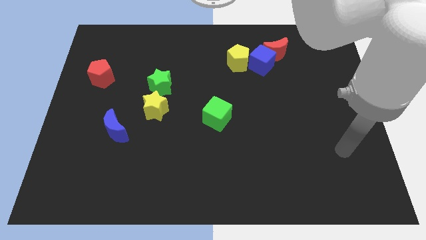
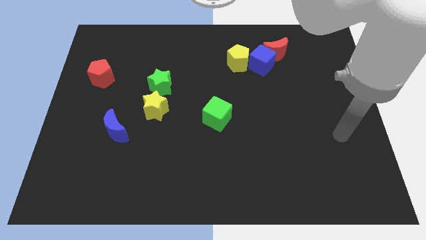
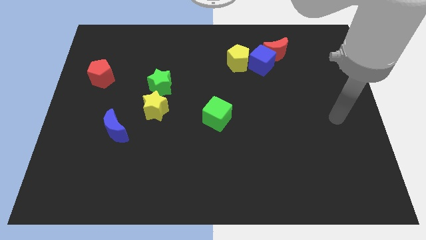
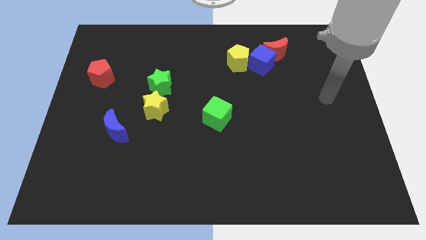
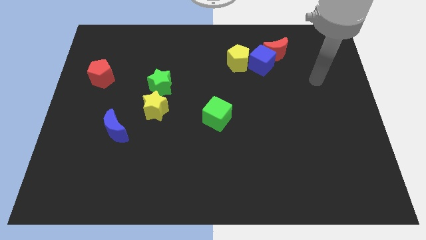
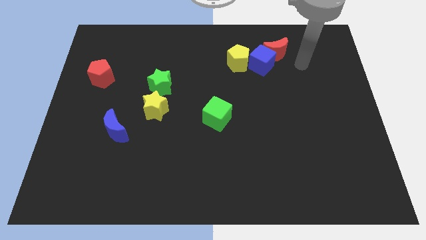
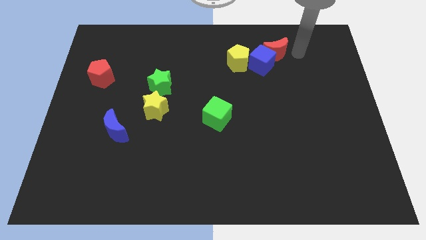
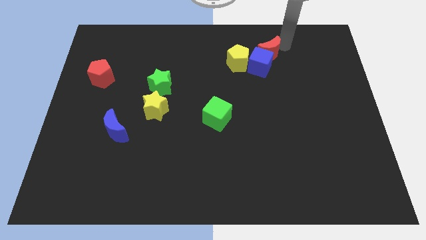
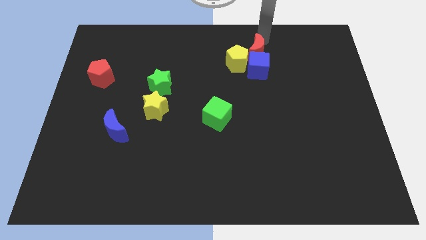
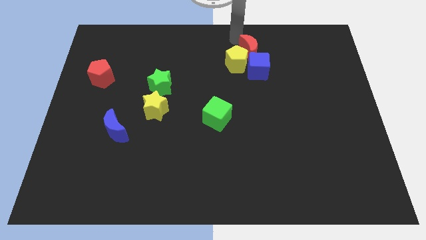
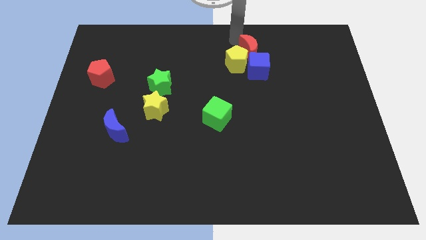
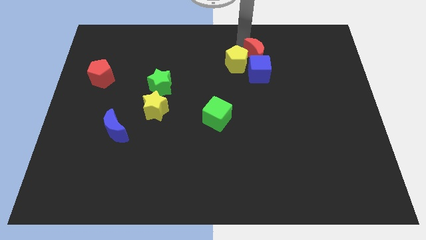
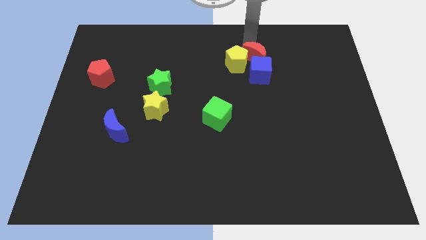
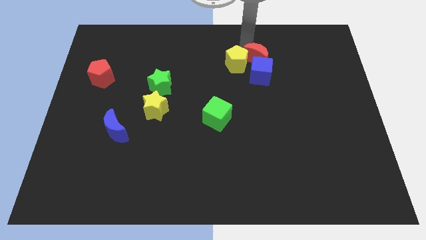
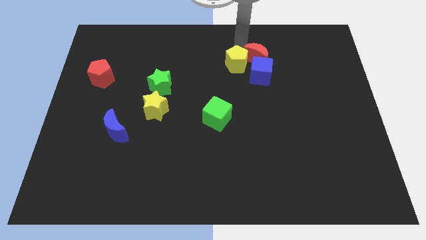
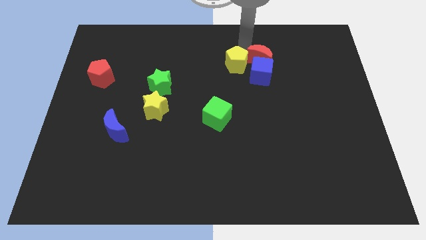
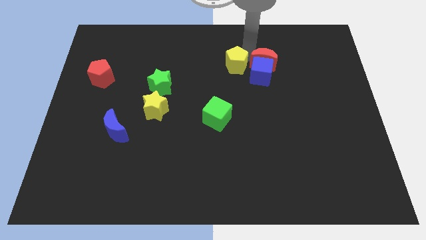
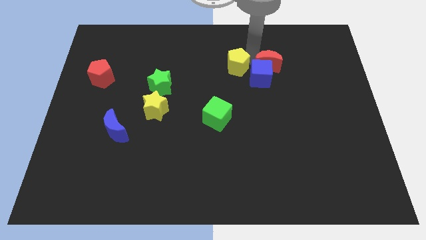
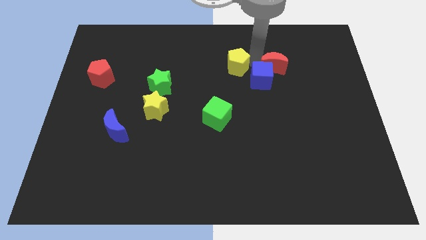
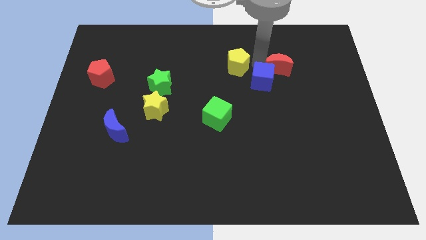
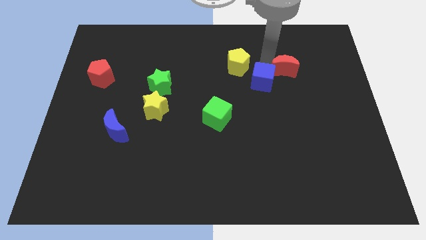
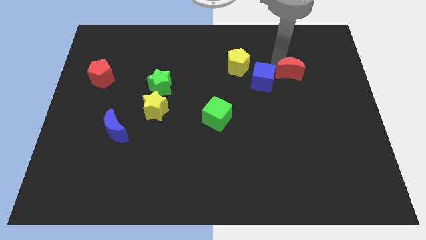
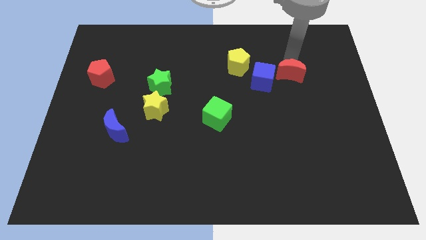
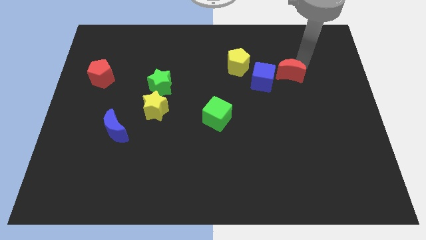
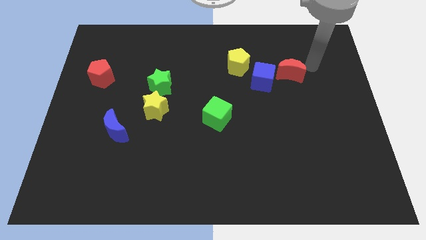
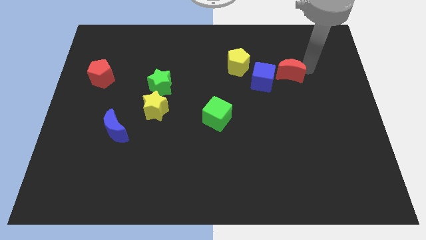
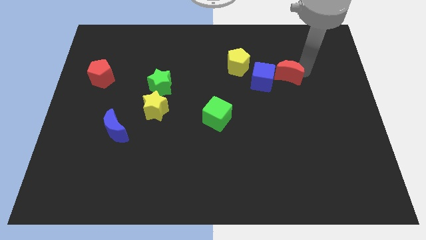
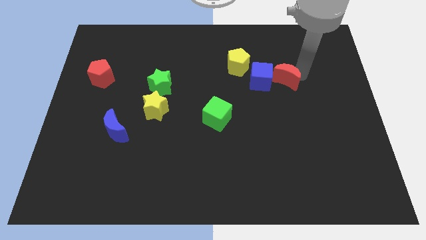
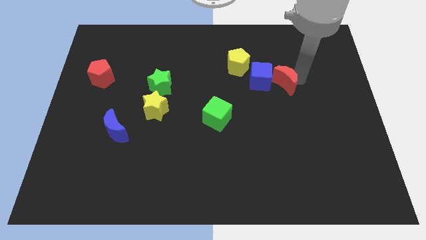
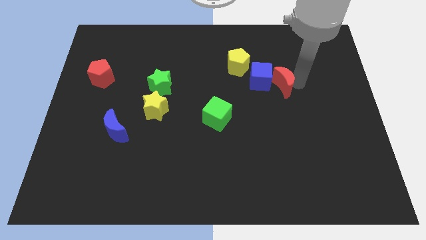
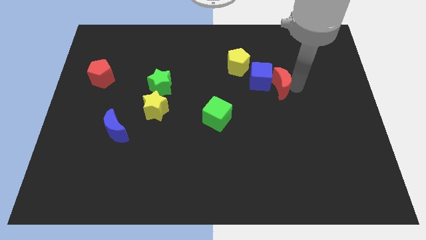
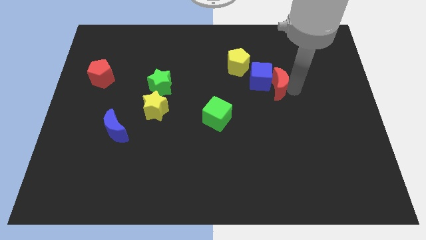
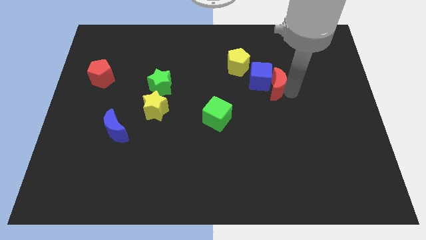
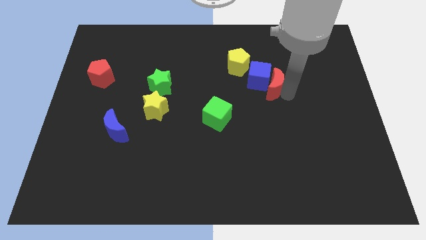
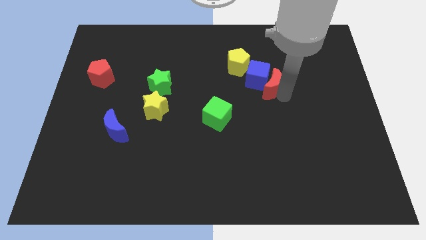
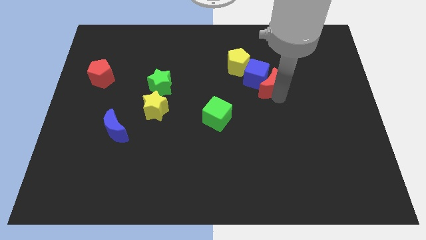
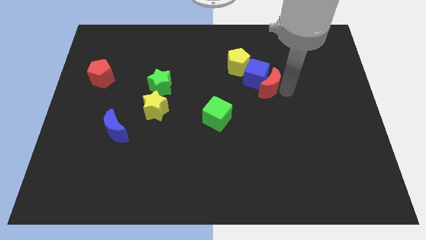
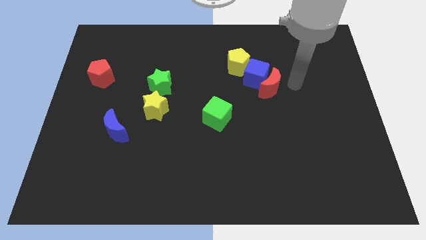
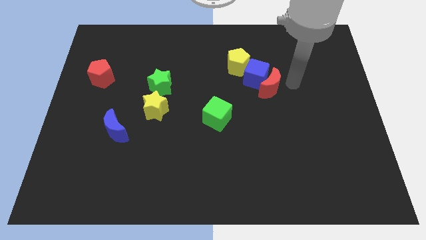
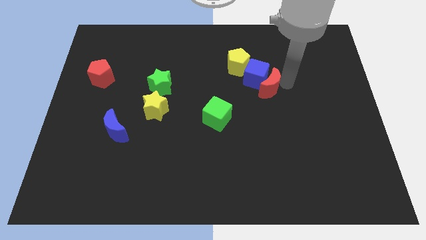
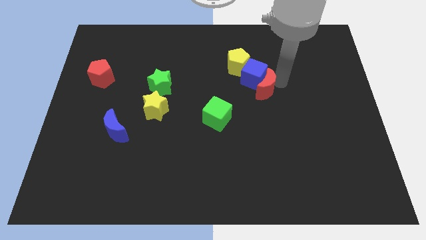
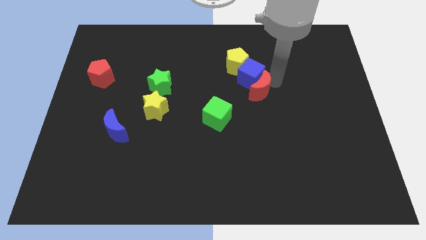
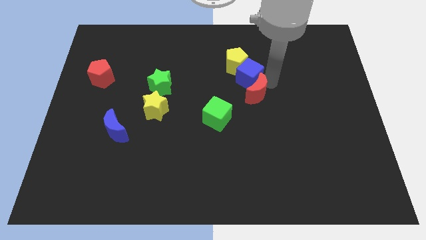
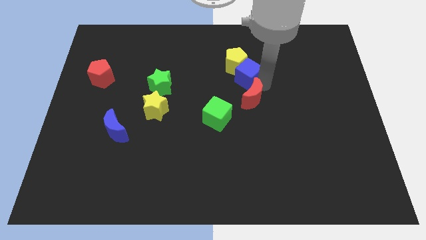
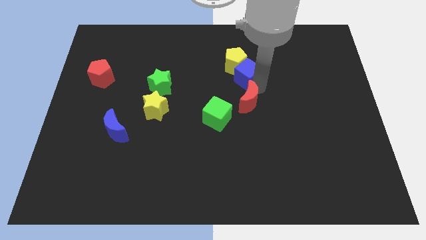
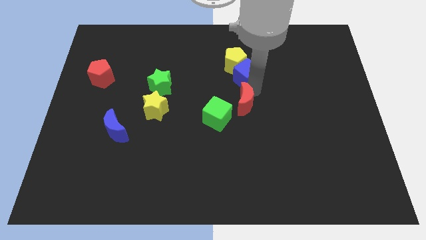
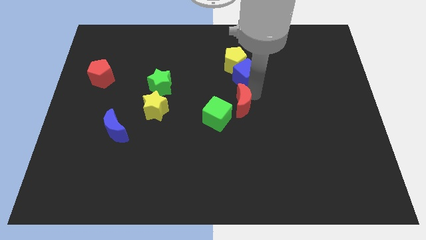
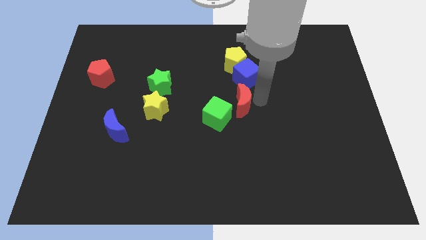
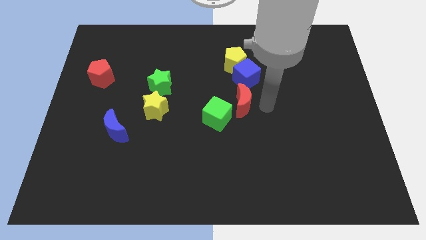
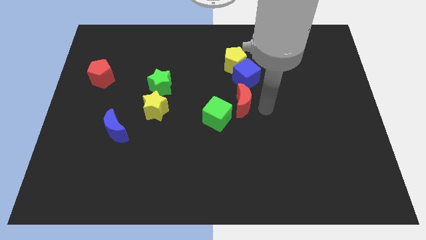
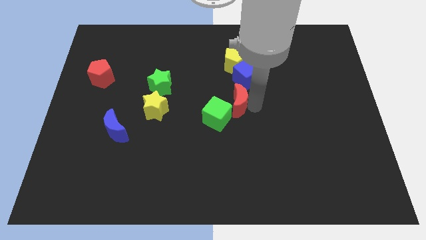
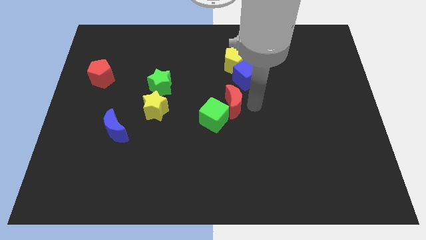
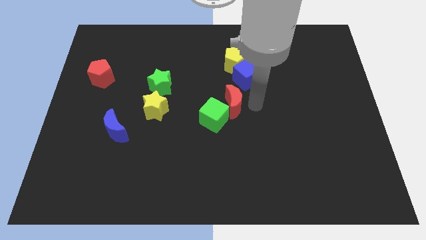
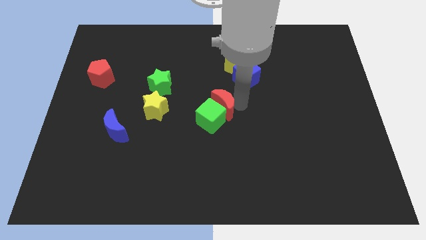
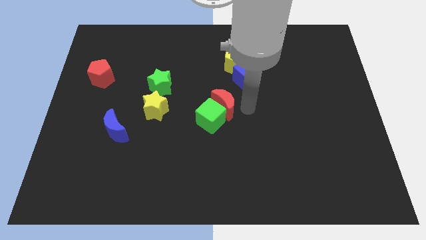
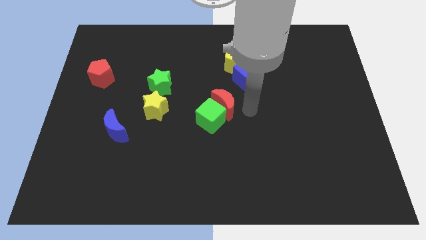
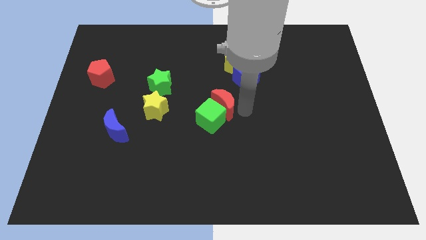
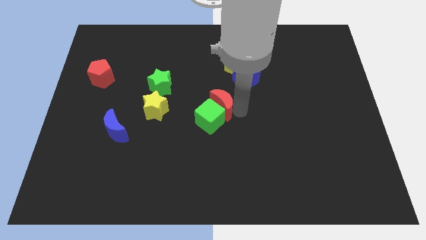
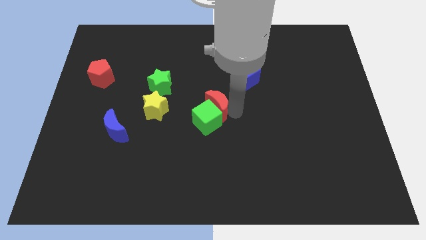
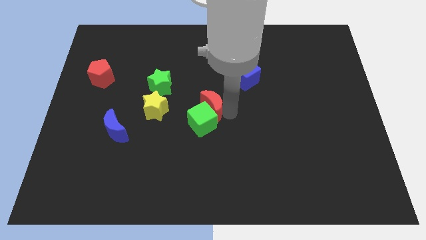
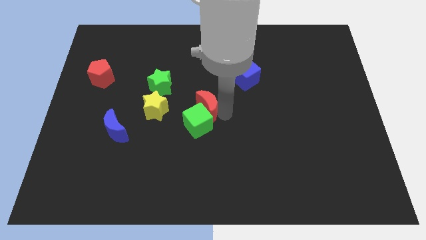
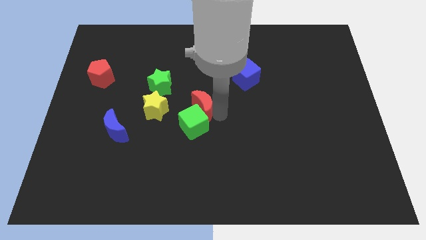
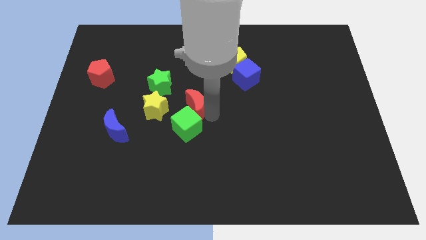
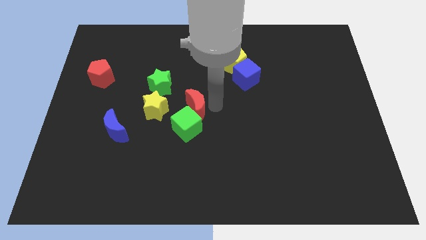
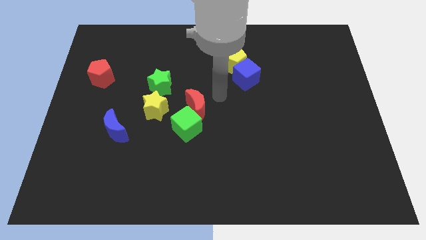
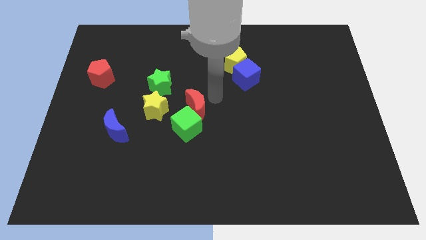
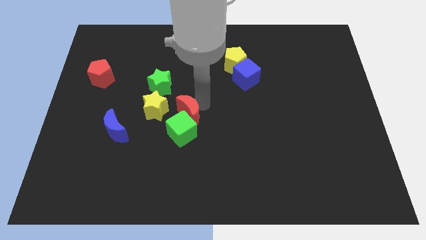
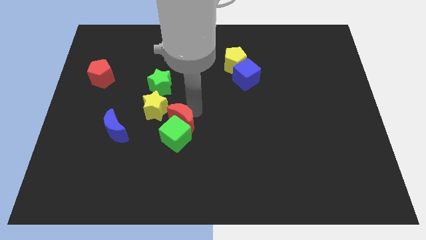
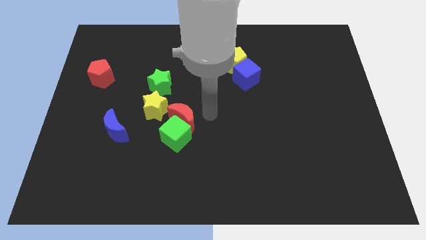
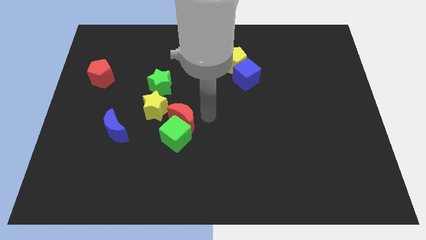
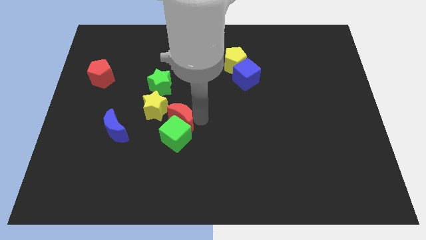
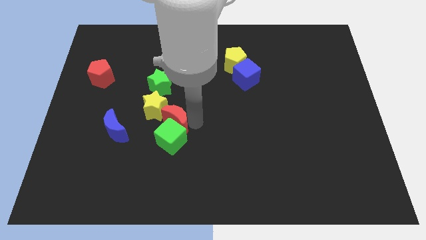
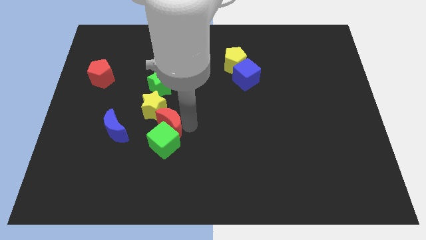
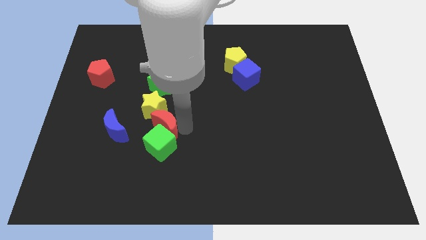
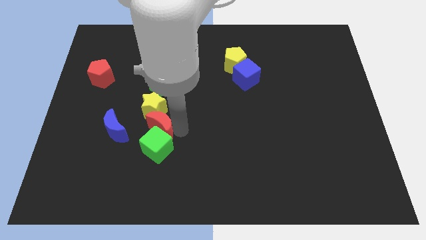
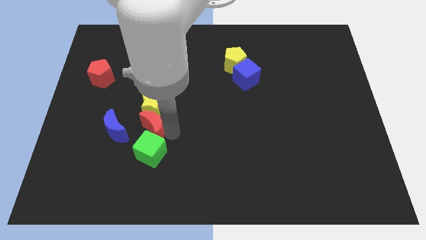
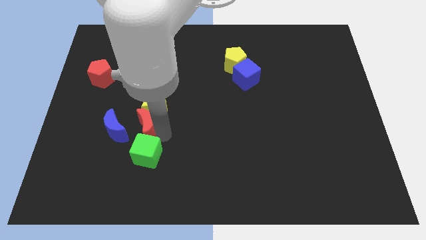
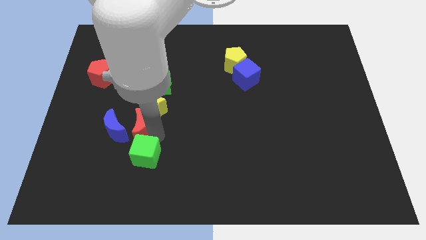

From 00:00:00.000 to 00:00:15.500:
push the red moon to the blue moon
